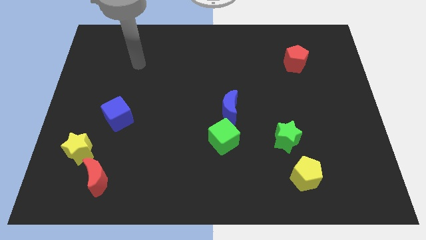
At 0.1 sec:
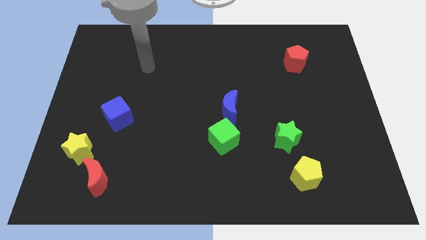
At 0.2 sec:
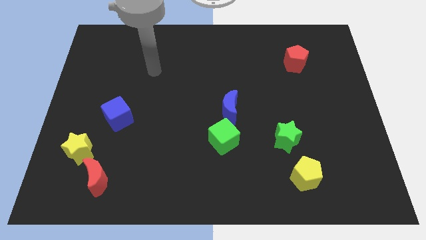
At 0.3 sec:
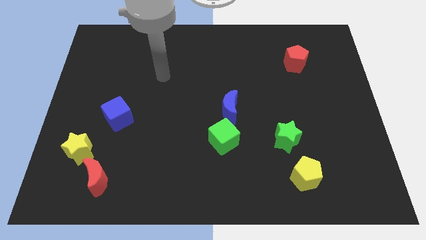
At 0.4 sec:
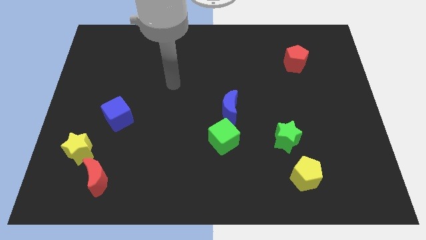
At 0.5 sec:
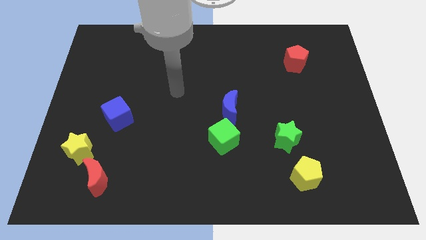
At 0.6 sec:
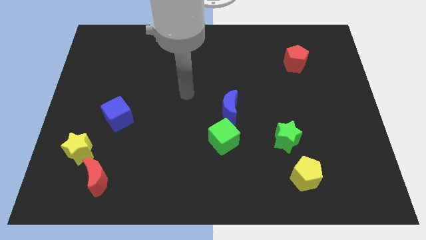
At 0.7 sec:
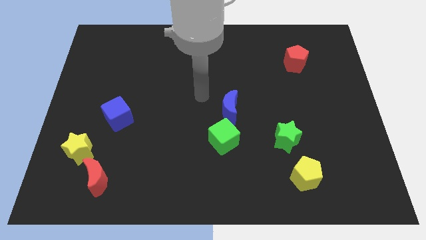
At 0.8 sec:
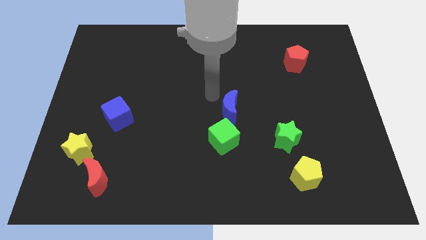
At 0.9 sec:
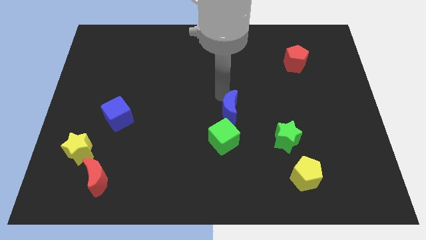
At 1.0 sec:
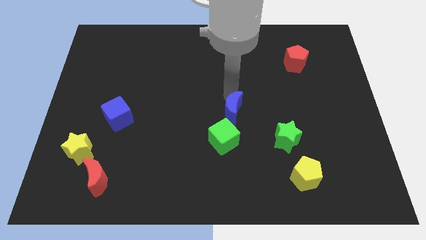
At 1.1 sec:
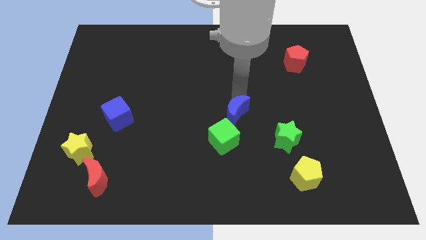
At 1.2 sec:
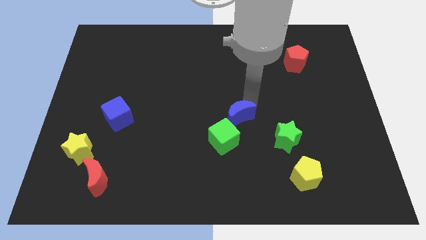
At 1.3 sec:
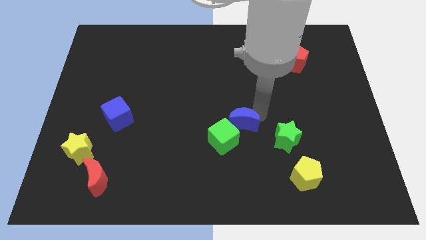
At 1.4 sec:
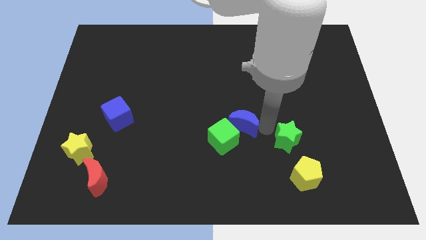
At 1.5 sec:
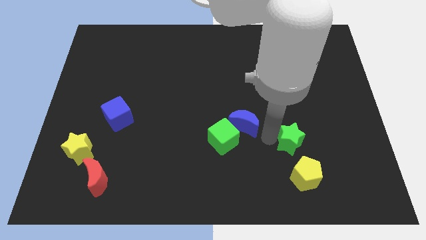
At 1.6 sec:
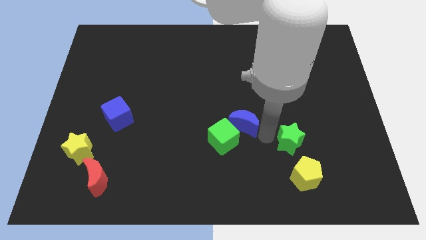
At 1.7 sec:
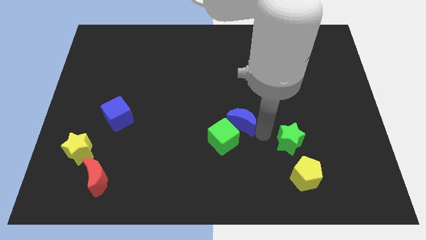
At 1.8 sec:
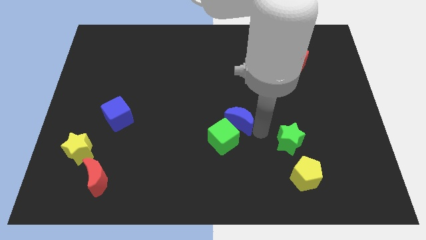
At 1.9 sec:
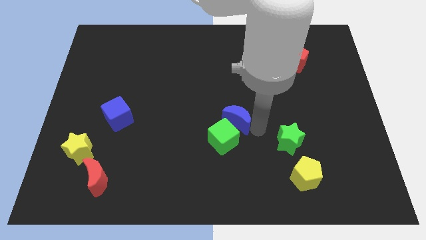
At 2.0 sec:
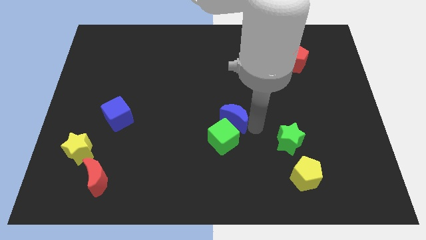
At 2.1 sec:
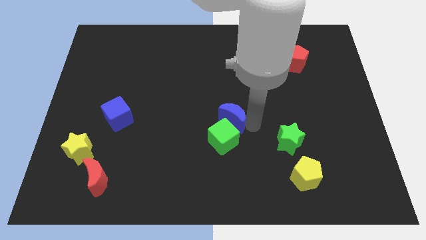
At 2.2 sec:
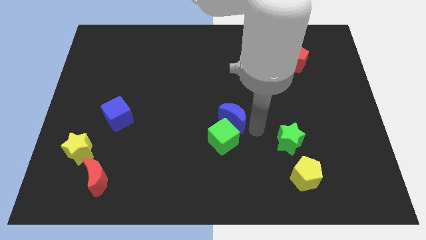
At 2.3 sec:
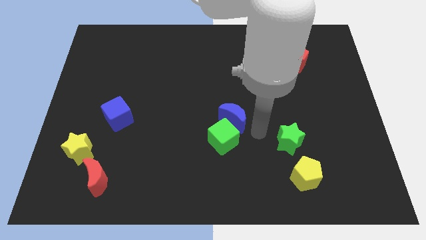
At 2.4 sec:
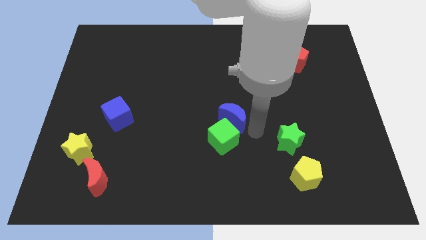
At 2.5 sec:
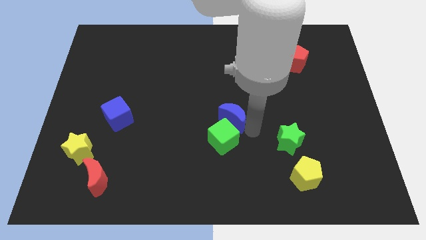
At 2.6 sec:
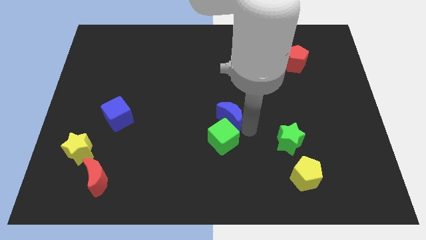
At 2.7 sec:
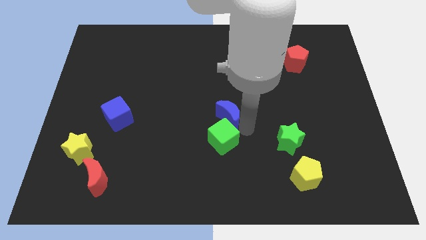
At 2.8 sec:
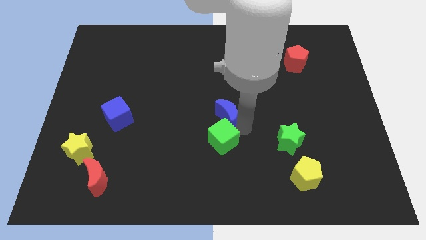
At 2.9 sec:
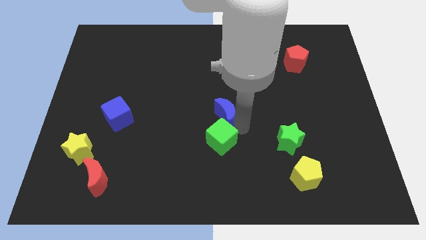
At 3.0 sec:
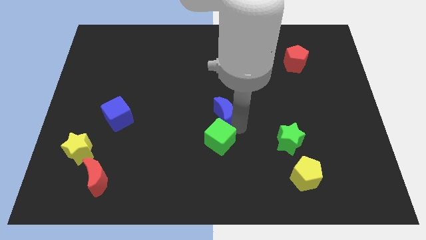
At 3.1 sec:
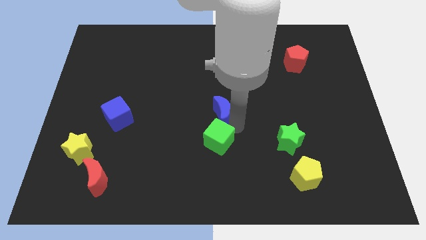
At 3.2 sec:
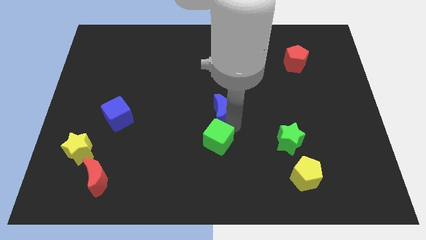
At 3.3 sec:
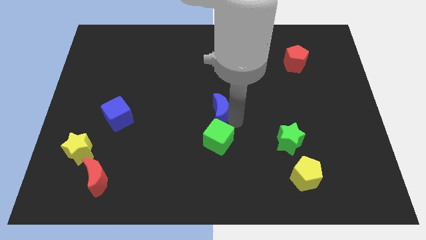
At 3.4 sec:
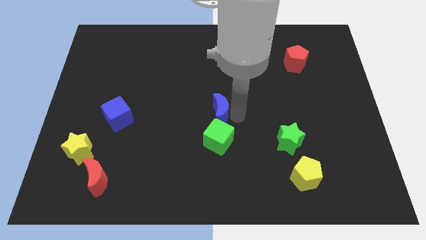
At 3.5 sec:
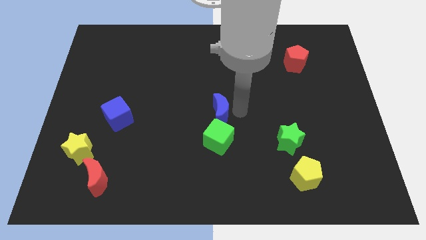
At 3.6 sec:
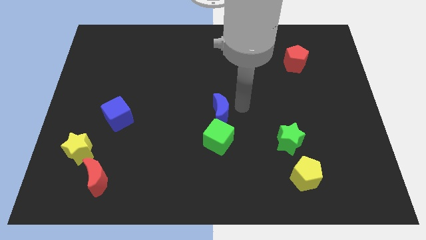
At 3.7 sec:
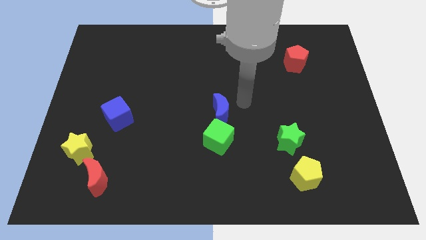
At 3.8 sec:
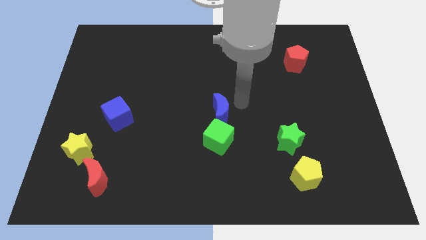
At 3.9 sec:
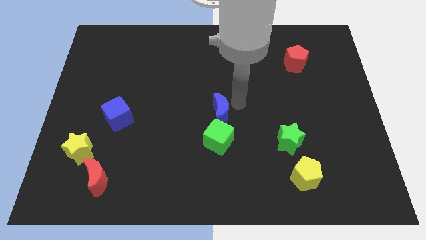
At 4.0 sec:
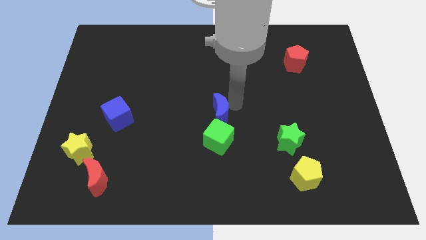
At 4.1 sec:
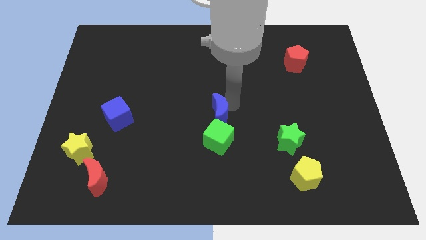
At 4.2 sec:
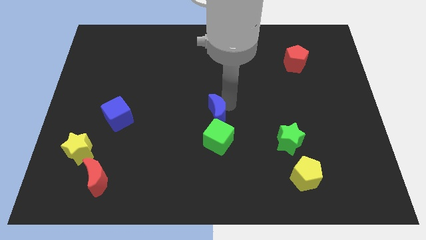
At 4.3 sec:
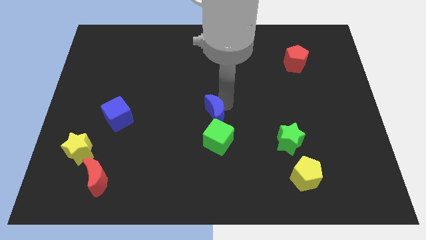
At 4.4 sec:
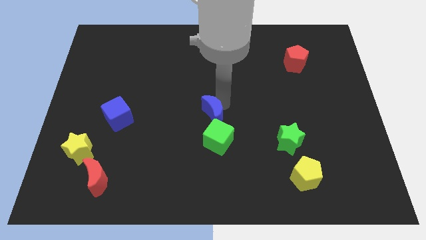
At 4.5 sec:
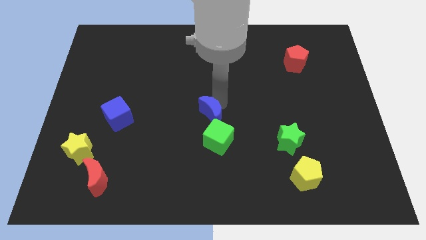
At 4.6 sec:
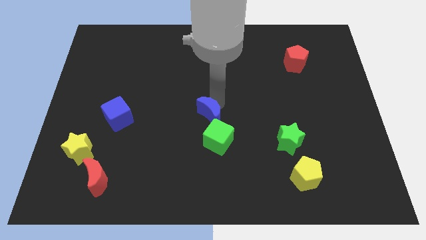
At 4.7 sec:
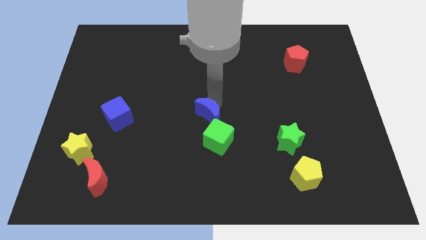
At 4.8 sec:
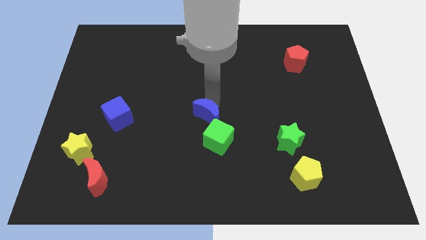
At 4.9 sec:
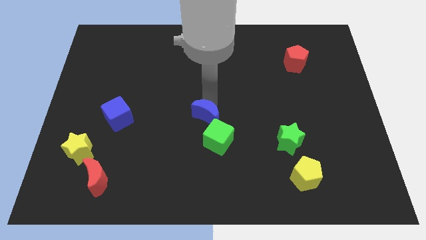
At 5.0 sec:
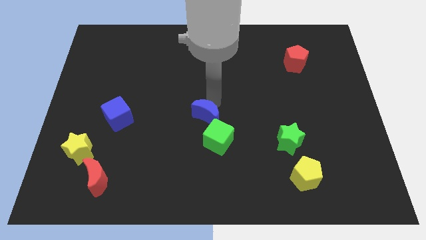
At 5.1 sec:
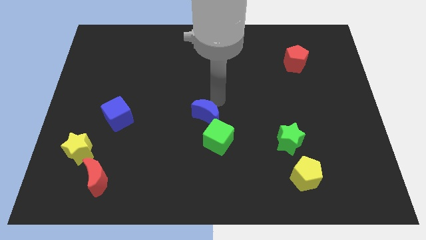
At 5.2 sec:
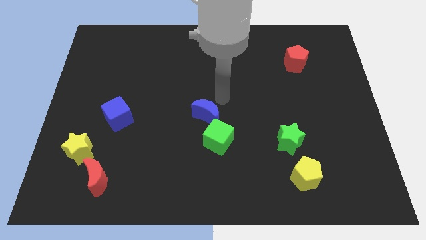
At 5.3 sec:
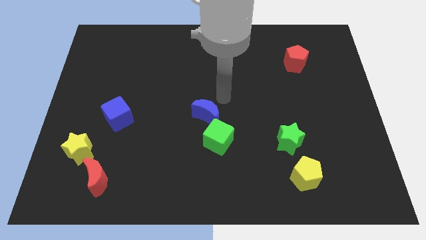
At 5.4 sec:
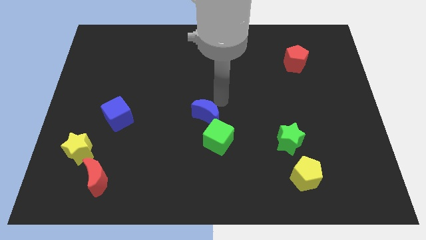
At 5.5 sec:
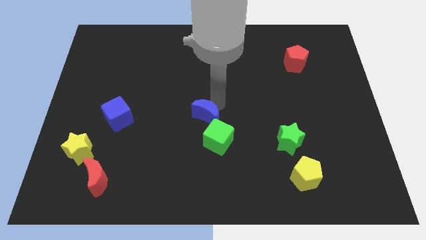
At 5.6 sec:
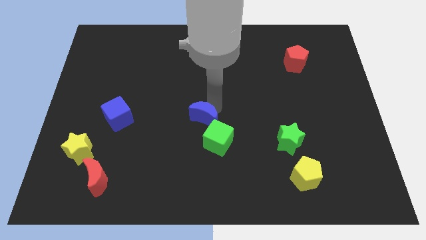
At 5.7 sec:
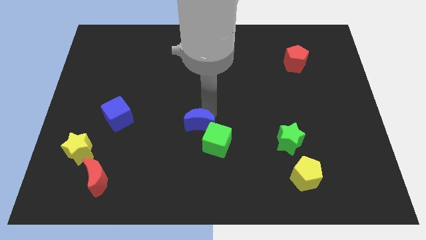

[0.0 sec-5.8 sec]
push the blue moon diagonally down and left somewhat

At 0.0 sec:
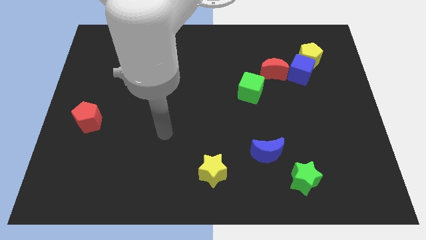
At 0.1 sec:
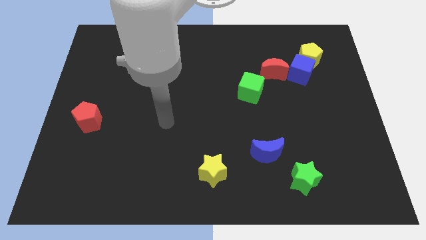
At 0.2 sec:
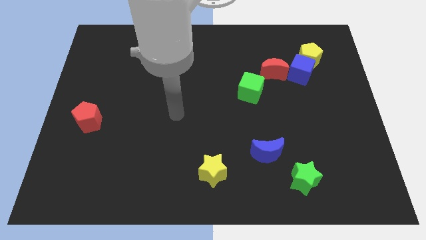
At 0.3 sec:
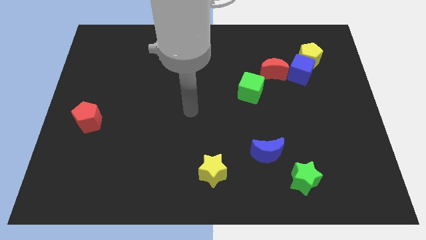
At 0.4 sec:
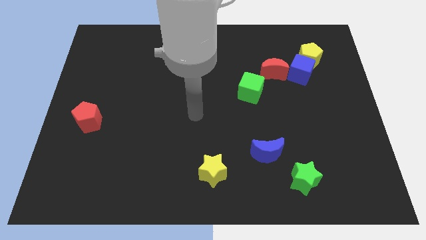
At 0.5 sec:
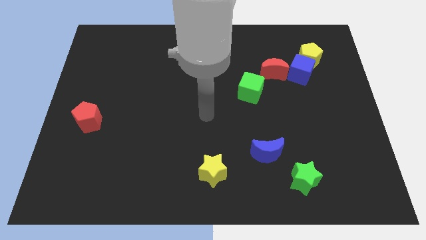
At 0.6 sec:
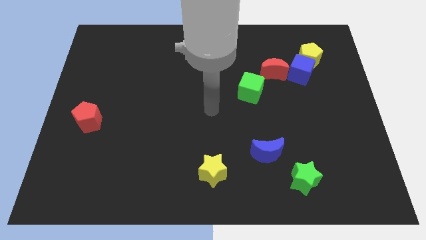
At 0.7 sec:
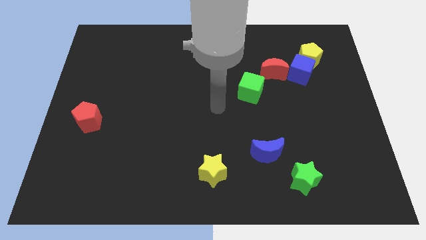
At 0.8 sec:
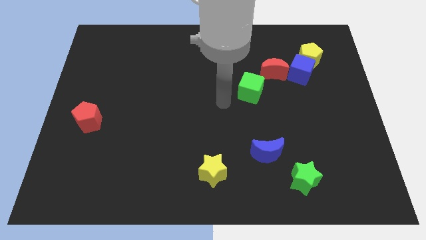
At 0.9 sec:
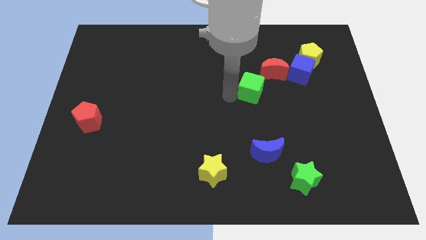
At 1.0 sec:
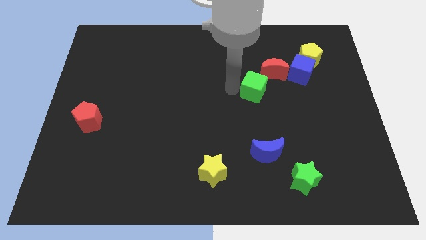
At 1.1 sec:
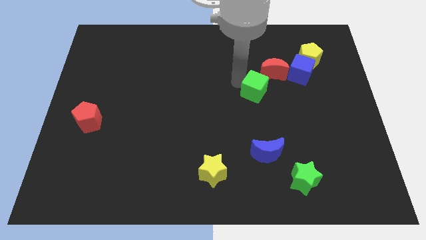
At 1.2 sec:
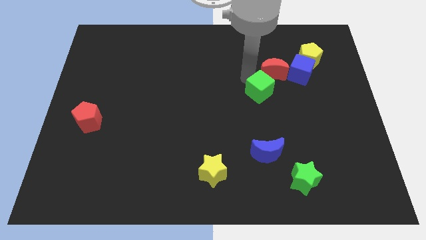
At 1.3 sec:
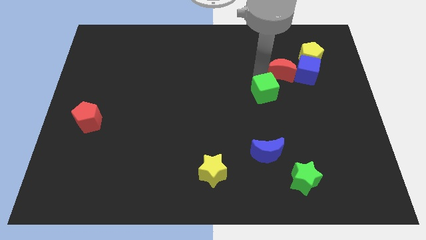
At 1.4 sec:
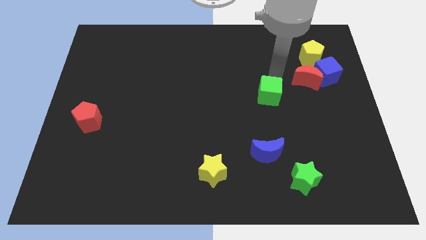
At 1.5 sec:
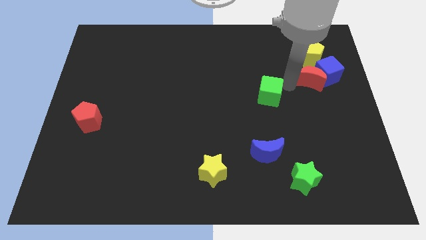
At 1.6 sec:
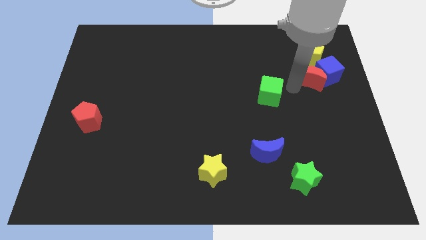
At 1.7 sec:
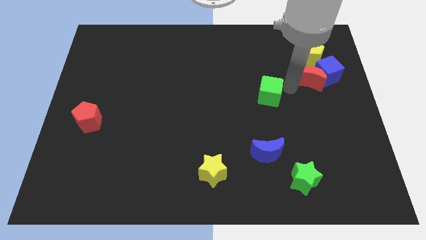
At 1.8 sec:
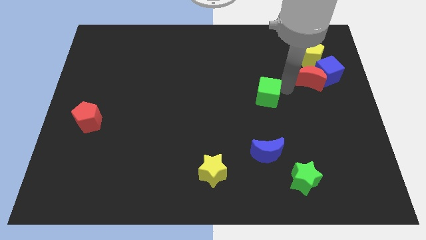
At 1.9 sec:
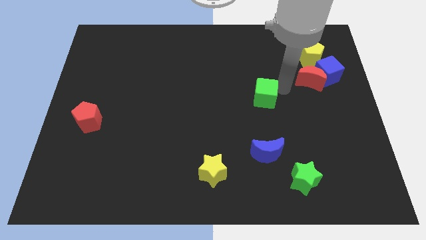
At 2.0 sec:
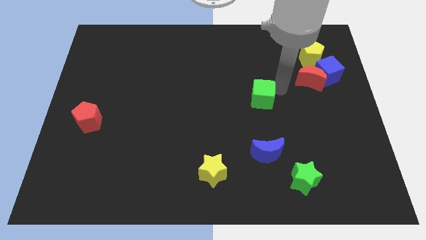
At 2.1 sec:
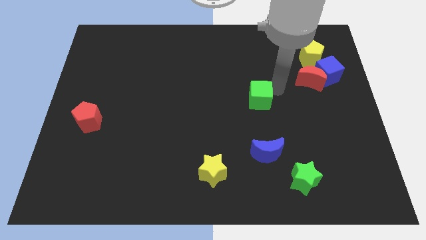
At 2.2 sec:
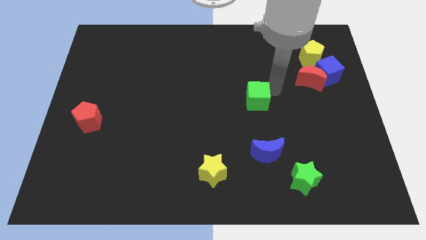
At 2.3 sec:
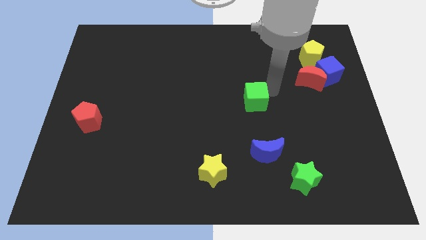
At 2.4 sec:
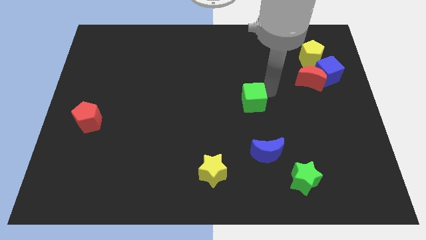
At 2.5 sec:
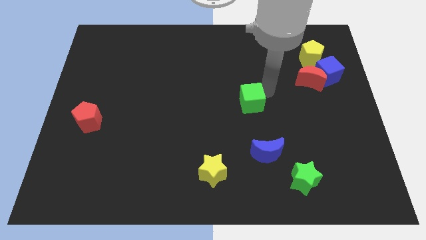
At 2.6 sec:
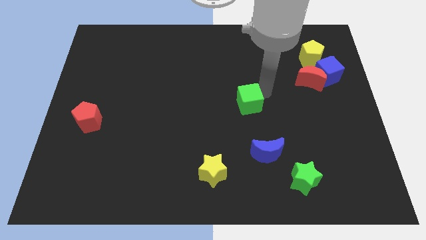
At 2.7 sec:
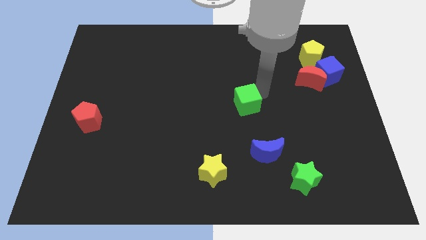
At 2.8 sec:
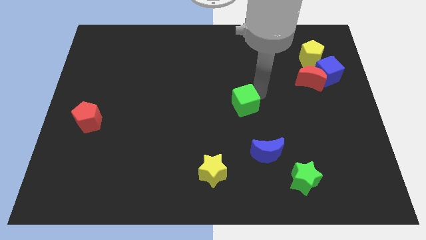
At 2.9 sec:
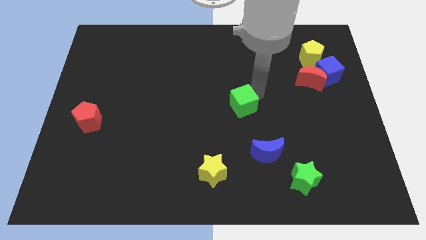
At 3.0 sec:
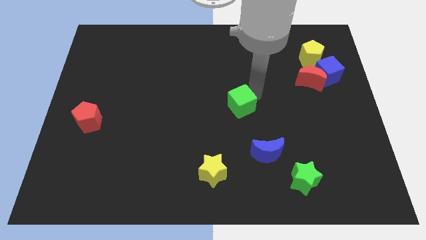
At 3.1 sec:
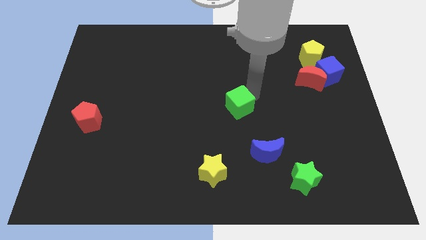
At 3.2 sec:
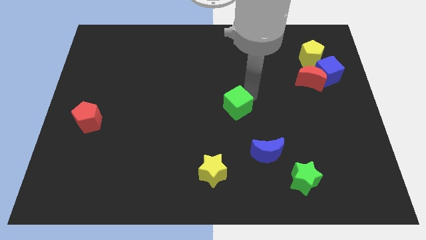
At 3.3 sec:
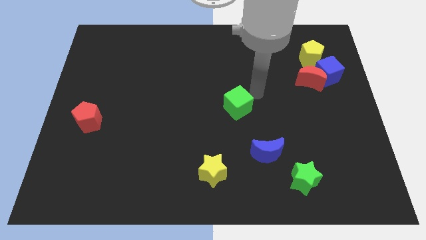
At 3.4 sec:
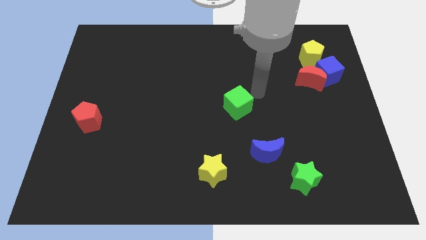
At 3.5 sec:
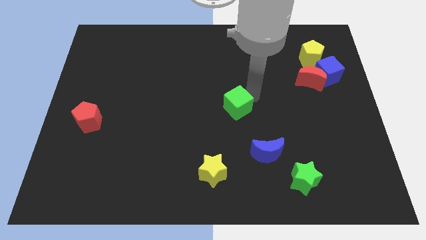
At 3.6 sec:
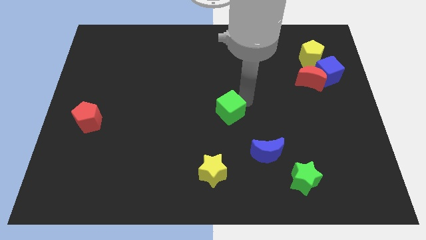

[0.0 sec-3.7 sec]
move the green cube diagonally down and to the left somewhat
